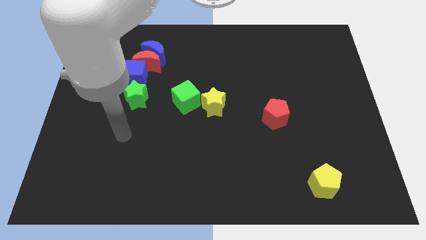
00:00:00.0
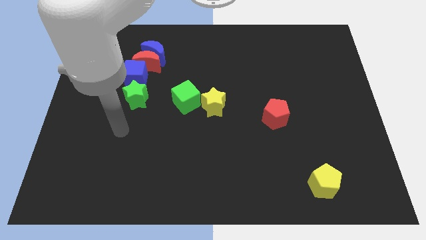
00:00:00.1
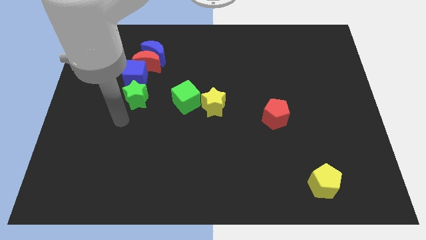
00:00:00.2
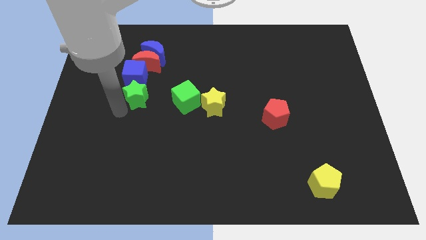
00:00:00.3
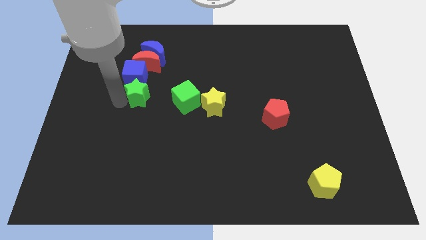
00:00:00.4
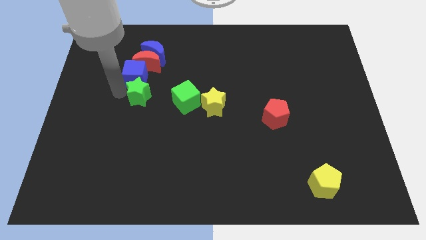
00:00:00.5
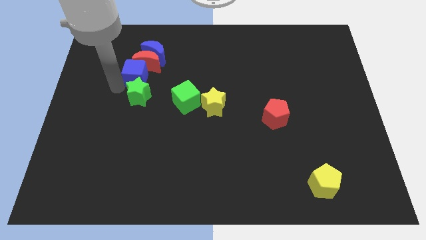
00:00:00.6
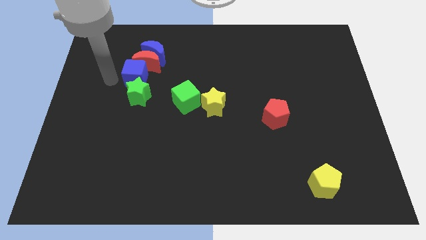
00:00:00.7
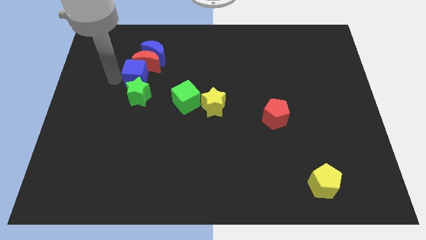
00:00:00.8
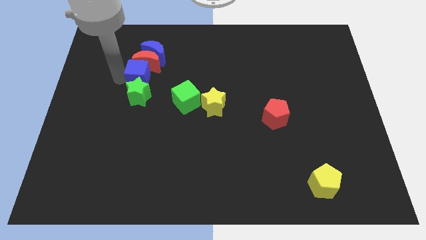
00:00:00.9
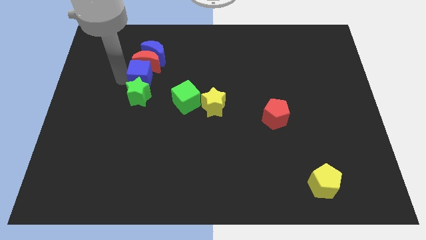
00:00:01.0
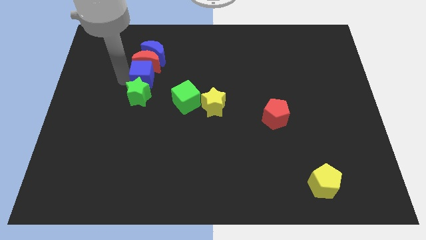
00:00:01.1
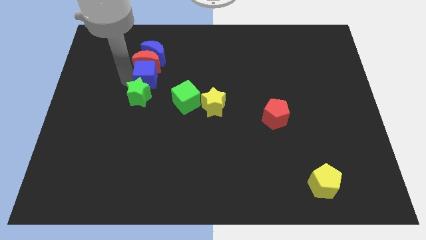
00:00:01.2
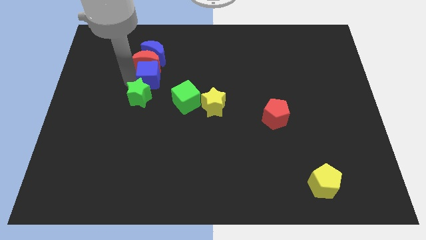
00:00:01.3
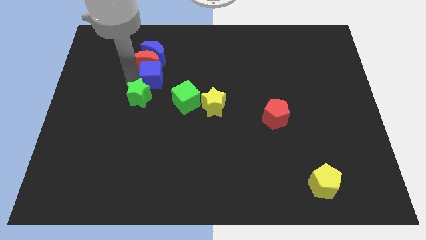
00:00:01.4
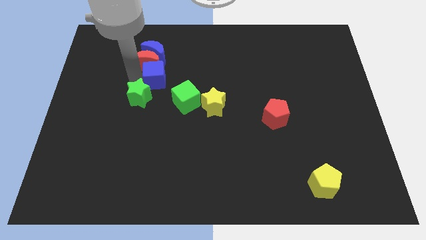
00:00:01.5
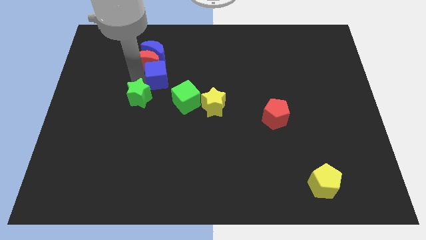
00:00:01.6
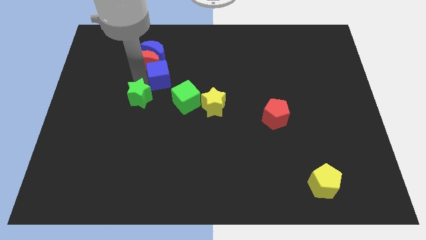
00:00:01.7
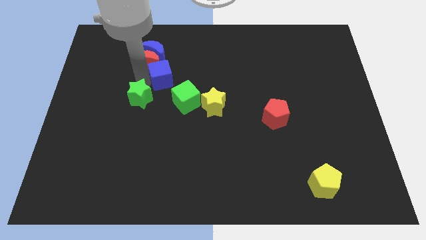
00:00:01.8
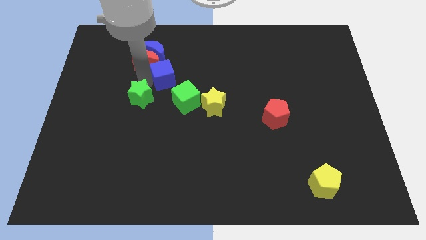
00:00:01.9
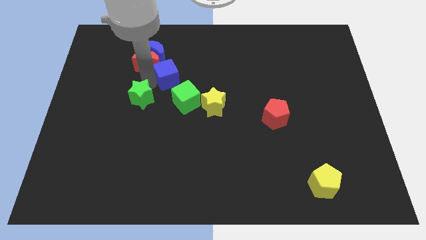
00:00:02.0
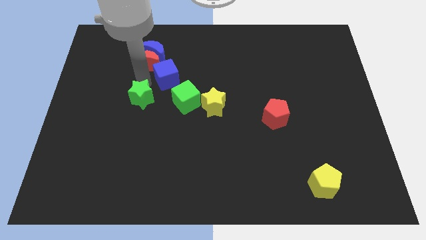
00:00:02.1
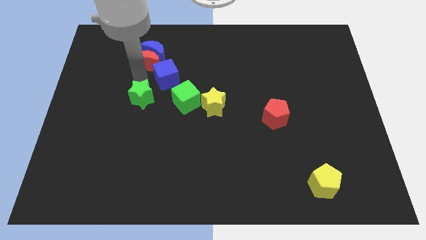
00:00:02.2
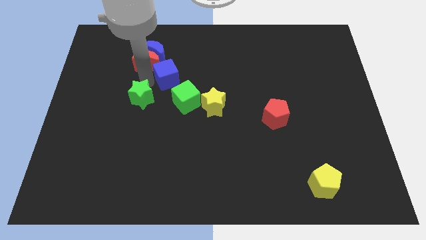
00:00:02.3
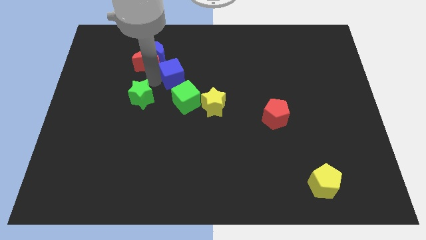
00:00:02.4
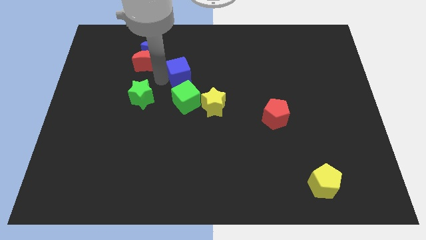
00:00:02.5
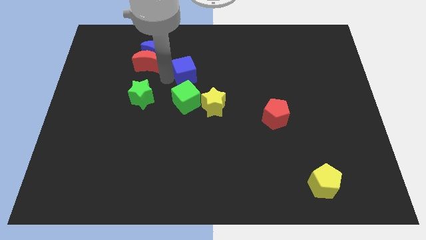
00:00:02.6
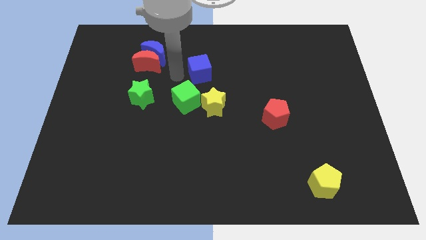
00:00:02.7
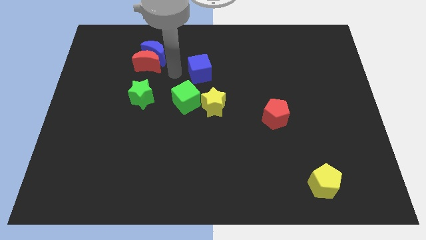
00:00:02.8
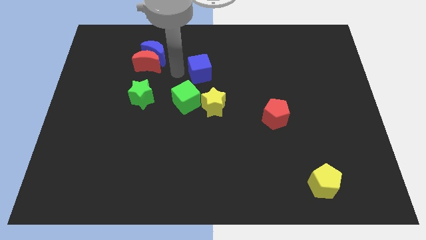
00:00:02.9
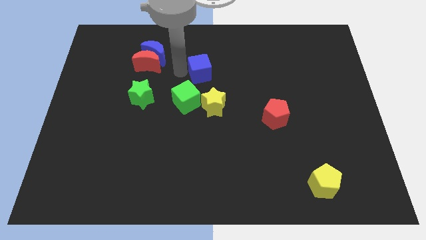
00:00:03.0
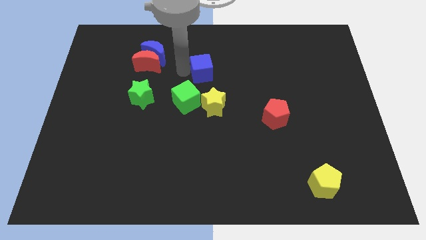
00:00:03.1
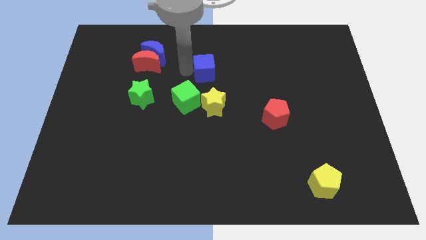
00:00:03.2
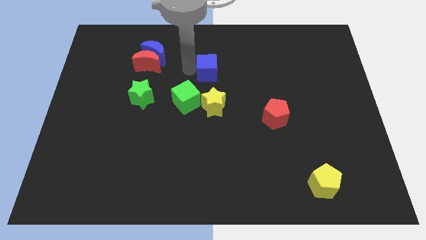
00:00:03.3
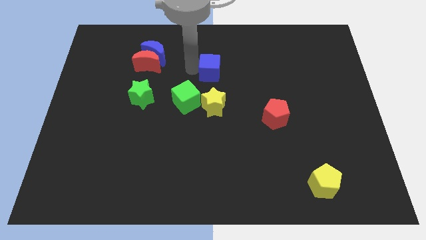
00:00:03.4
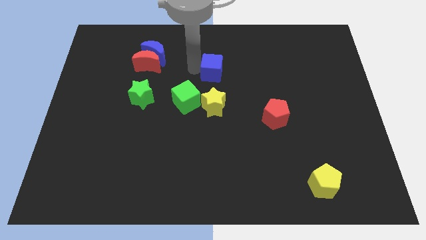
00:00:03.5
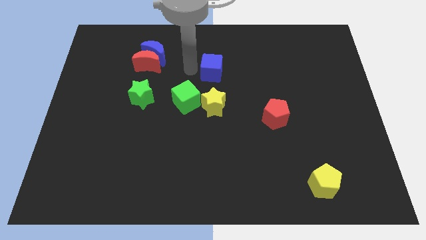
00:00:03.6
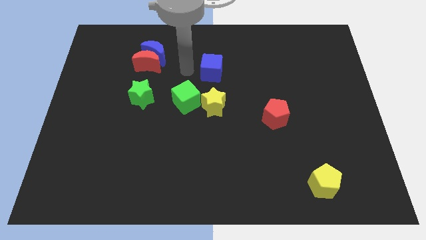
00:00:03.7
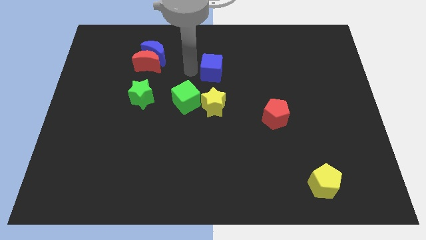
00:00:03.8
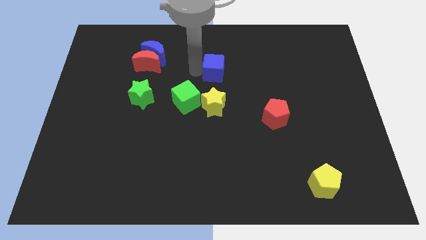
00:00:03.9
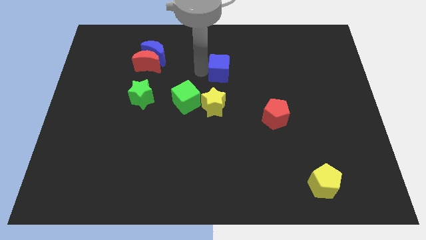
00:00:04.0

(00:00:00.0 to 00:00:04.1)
push the blue cube right

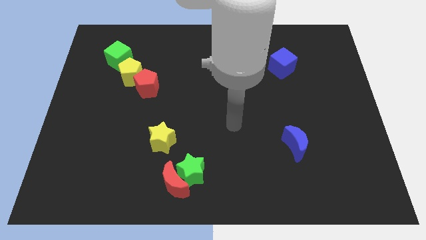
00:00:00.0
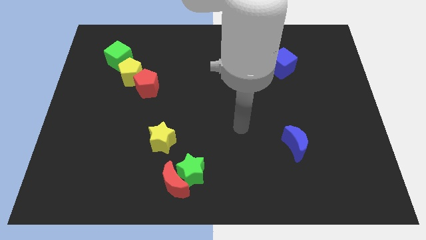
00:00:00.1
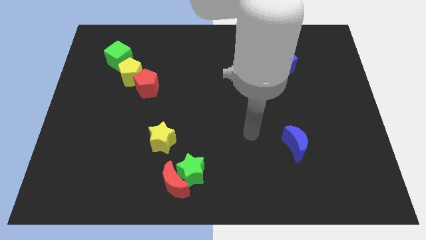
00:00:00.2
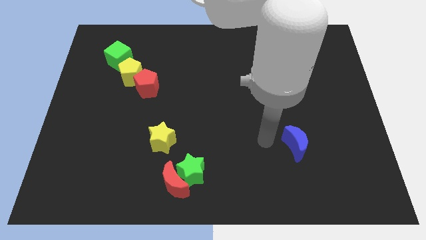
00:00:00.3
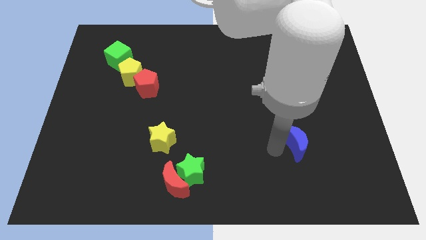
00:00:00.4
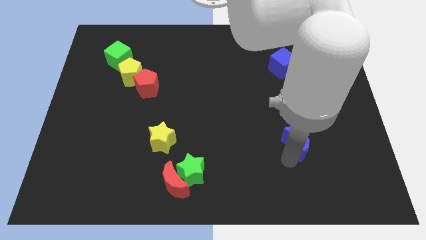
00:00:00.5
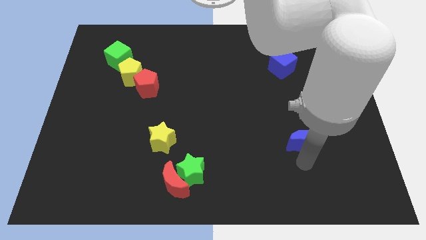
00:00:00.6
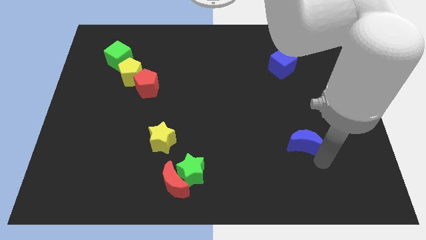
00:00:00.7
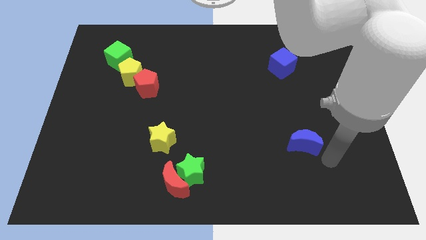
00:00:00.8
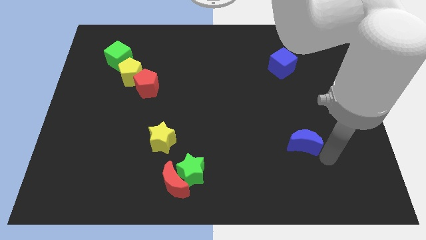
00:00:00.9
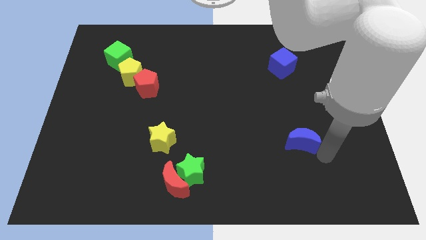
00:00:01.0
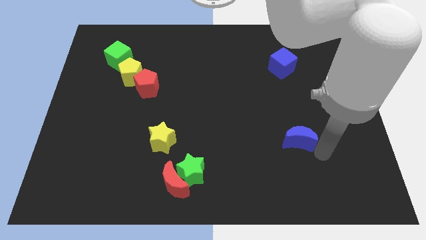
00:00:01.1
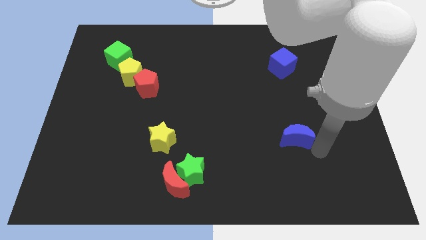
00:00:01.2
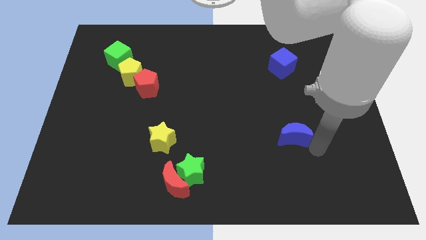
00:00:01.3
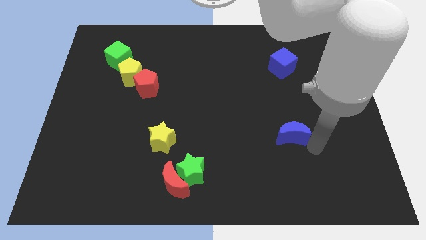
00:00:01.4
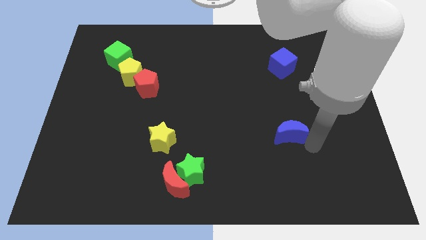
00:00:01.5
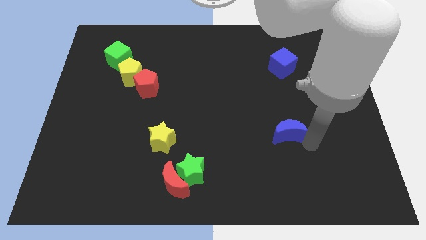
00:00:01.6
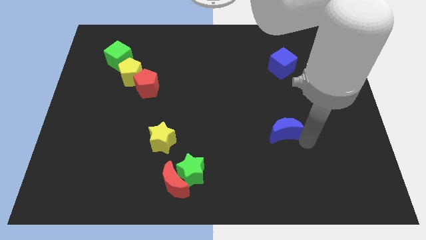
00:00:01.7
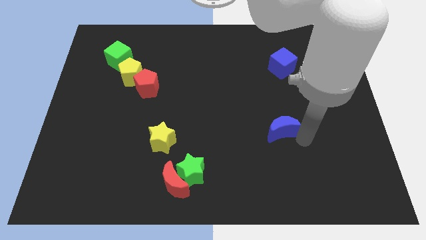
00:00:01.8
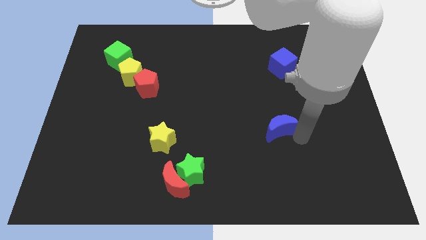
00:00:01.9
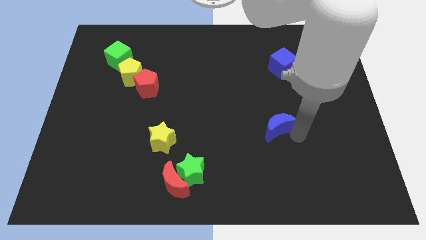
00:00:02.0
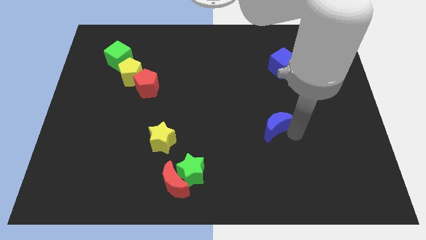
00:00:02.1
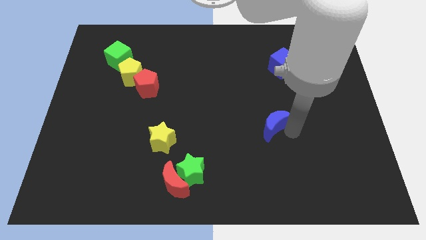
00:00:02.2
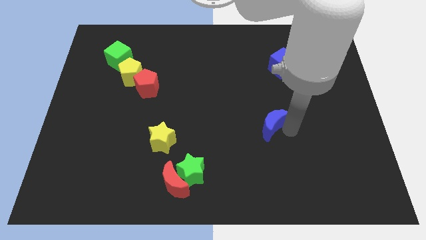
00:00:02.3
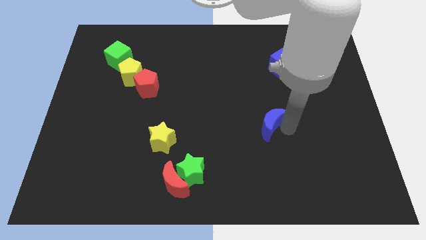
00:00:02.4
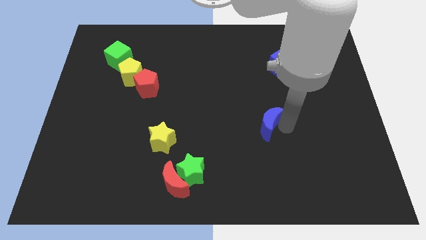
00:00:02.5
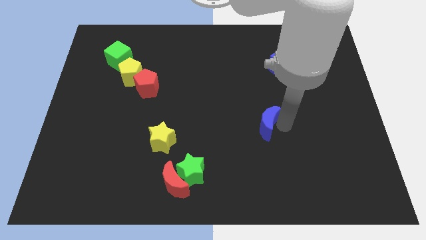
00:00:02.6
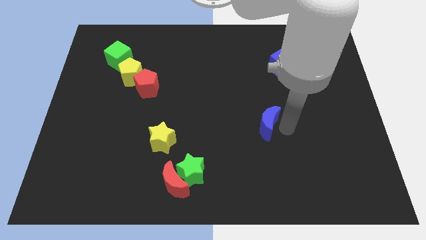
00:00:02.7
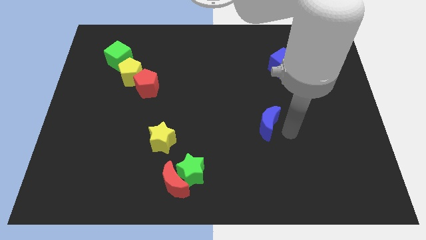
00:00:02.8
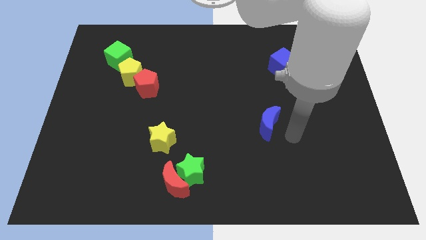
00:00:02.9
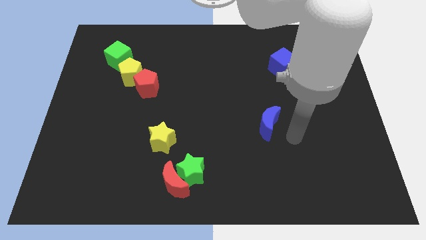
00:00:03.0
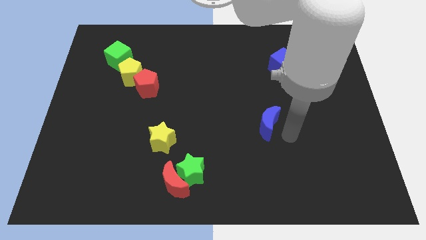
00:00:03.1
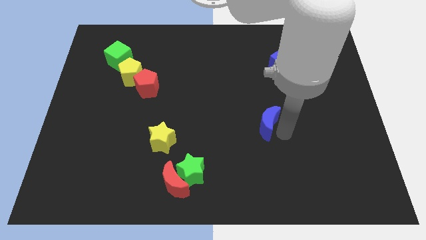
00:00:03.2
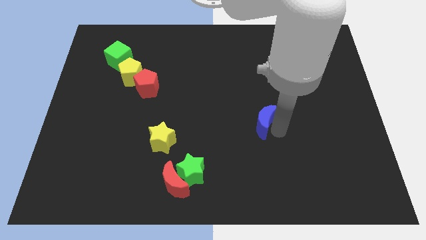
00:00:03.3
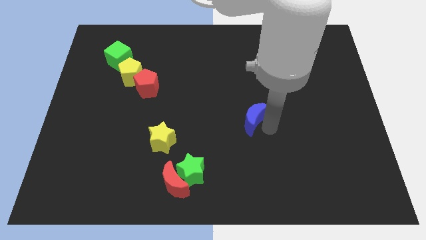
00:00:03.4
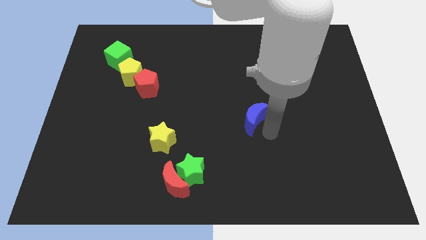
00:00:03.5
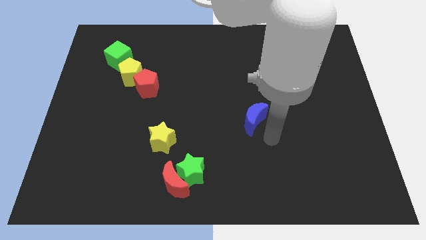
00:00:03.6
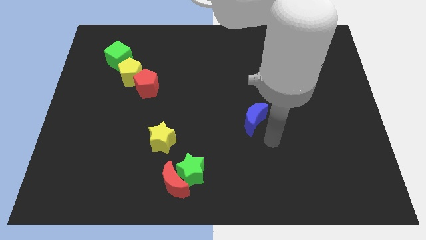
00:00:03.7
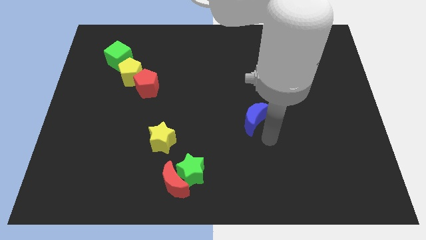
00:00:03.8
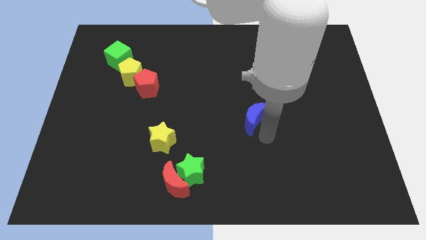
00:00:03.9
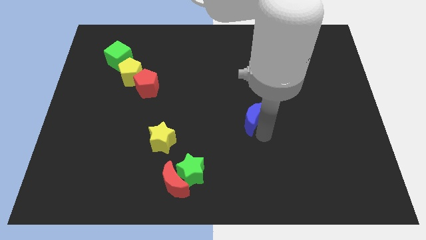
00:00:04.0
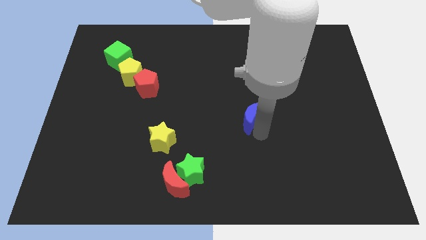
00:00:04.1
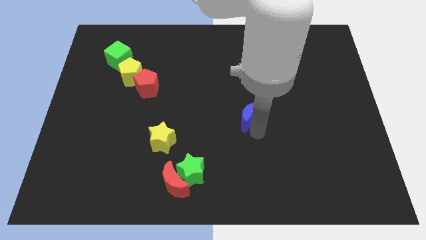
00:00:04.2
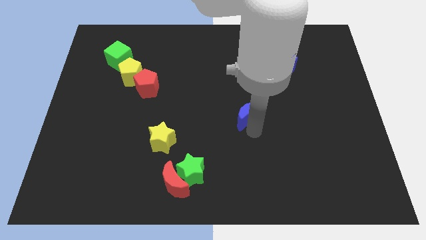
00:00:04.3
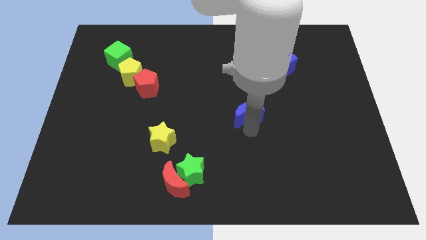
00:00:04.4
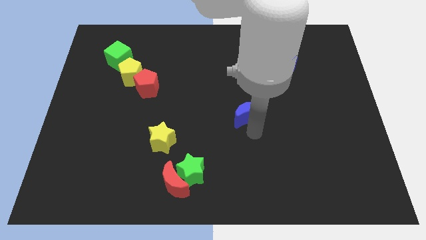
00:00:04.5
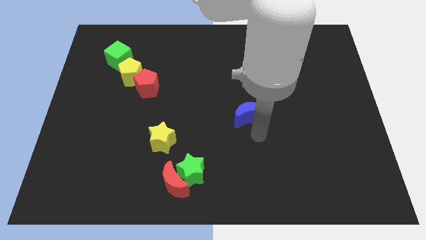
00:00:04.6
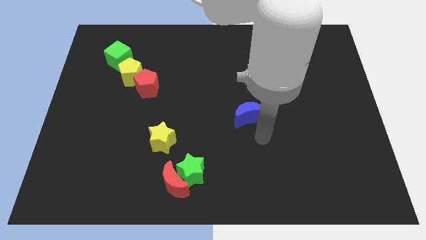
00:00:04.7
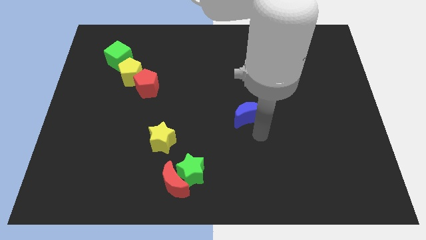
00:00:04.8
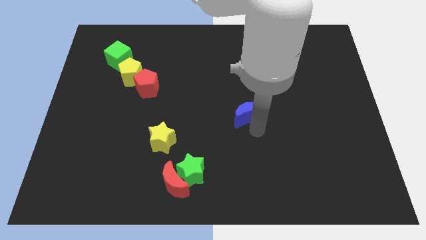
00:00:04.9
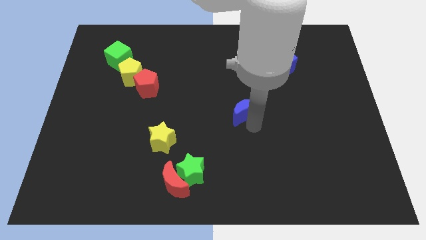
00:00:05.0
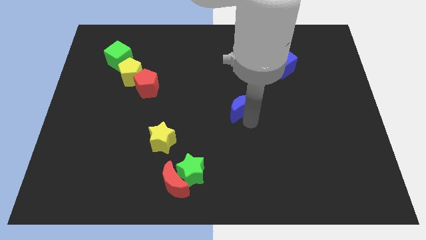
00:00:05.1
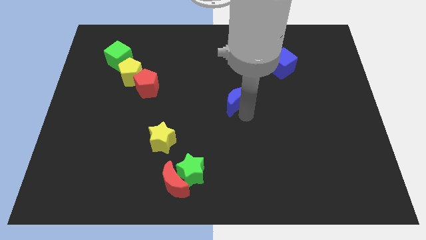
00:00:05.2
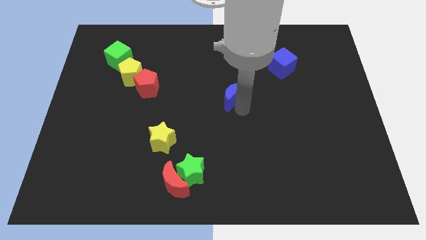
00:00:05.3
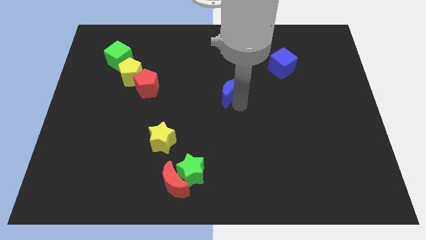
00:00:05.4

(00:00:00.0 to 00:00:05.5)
push the blue moon upwards and to the left
